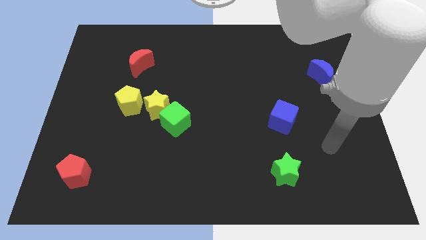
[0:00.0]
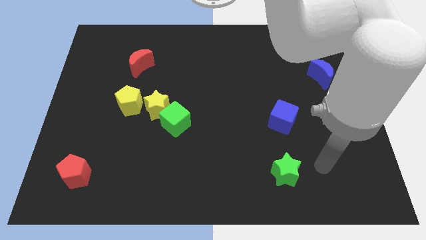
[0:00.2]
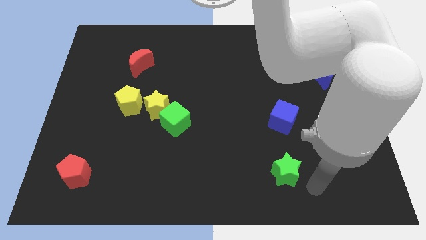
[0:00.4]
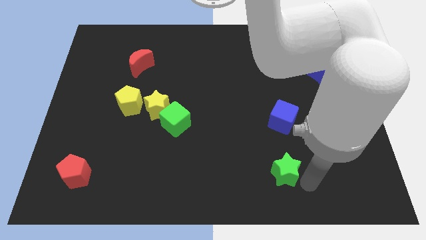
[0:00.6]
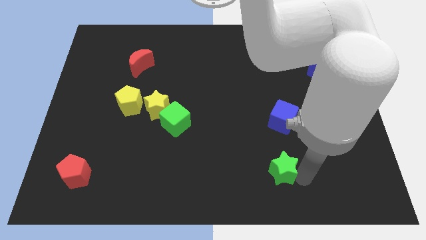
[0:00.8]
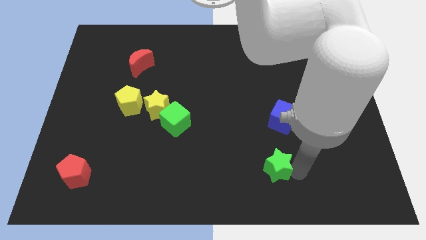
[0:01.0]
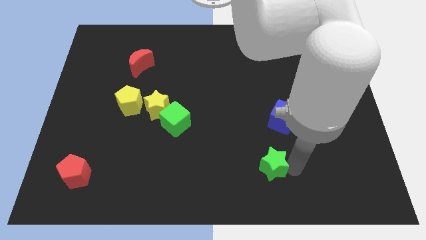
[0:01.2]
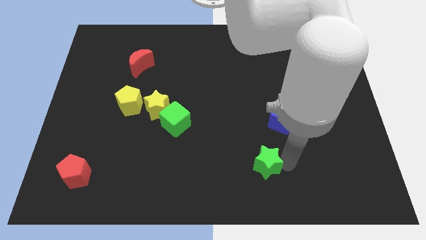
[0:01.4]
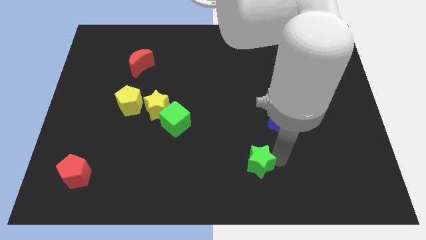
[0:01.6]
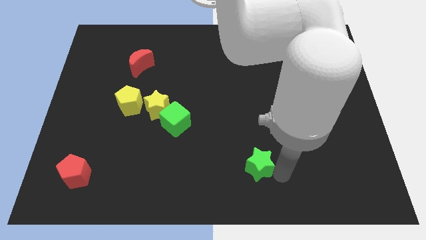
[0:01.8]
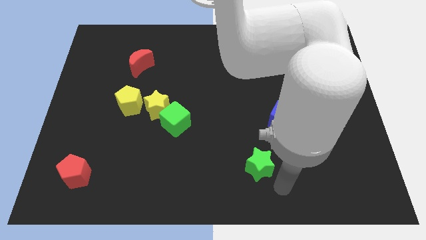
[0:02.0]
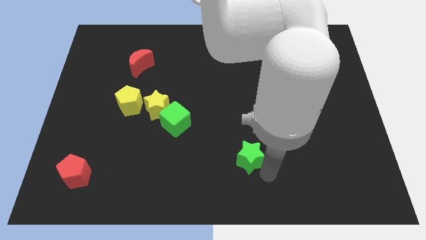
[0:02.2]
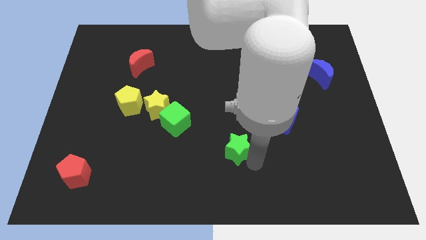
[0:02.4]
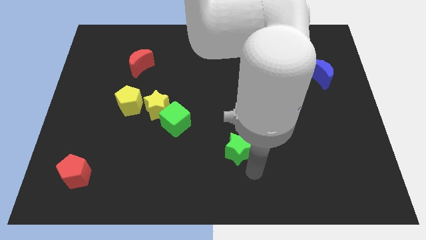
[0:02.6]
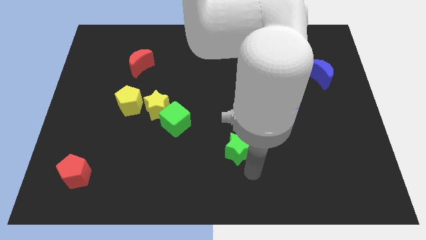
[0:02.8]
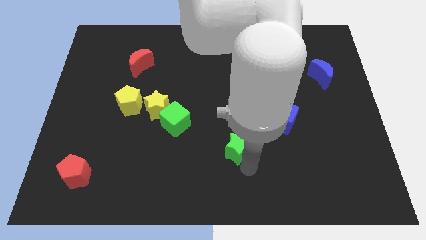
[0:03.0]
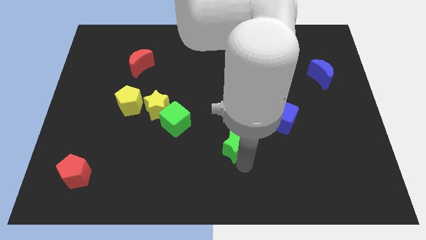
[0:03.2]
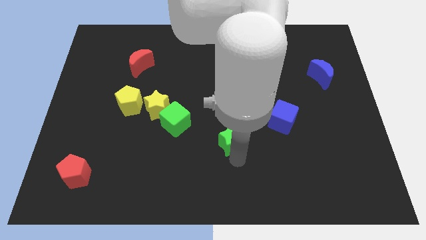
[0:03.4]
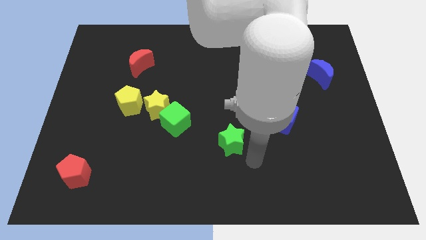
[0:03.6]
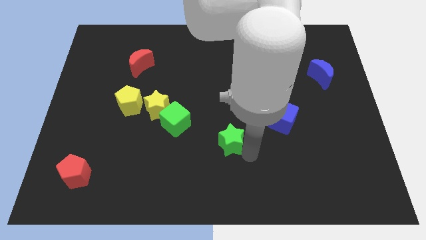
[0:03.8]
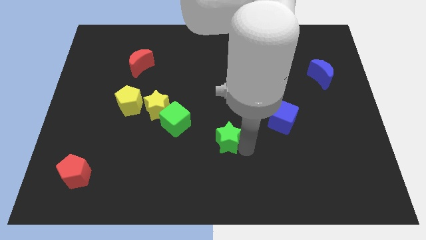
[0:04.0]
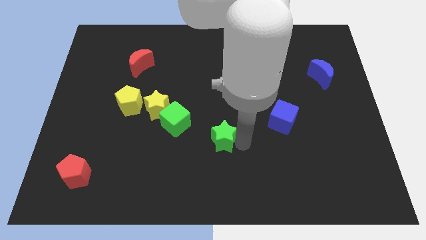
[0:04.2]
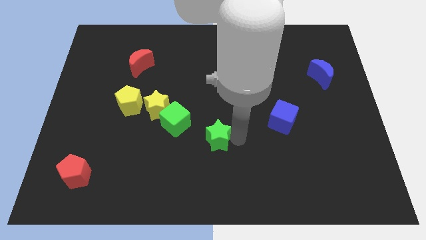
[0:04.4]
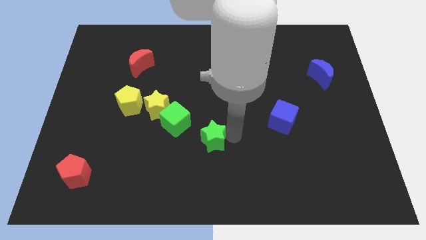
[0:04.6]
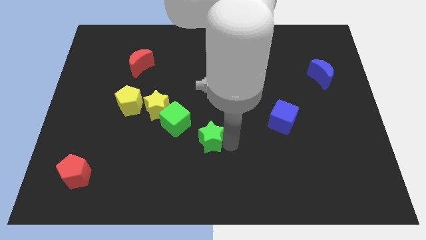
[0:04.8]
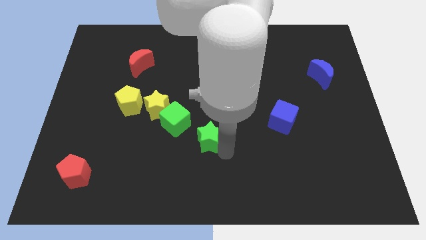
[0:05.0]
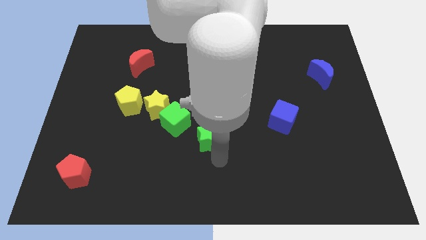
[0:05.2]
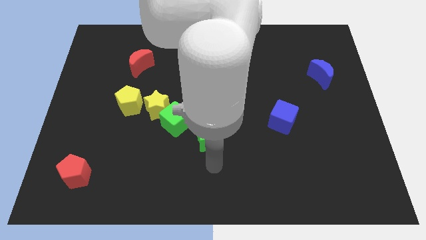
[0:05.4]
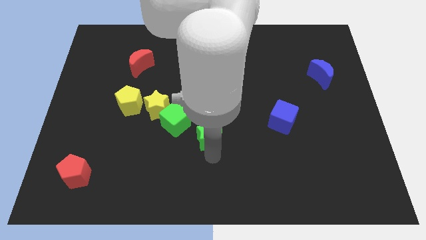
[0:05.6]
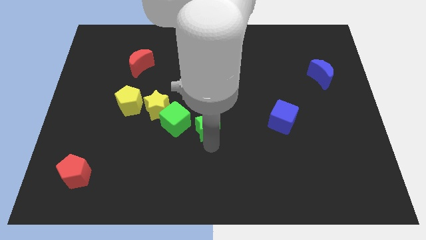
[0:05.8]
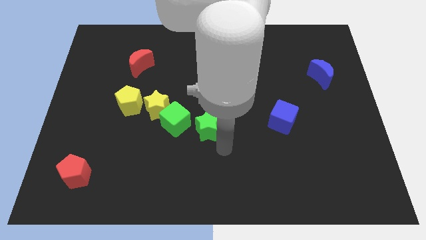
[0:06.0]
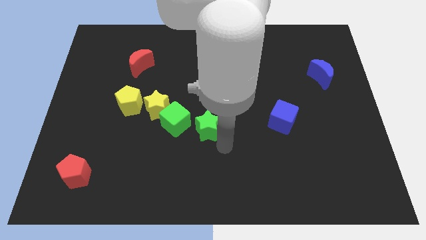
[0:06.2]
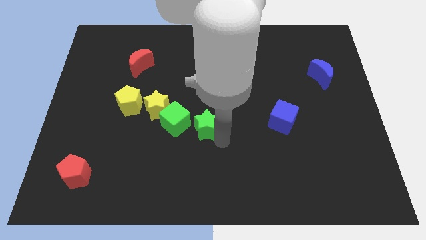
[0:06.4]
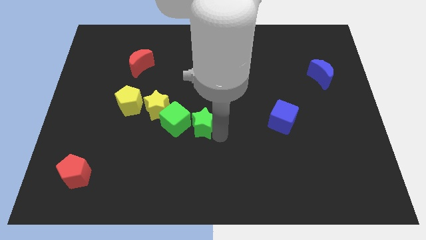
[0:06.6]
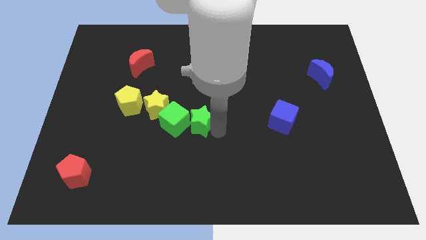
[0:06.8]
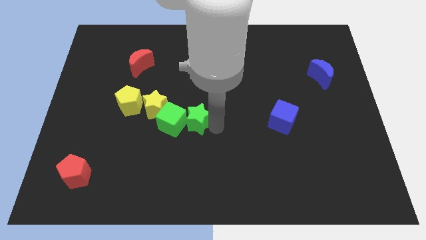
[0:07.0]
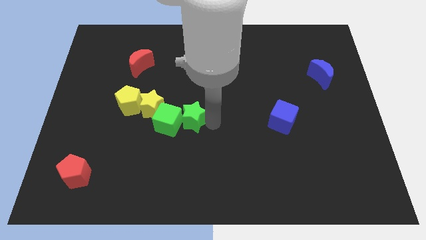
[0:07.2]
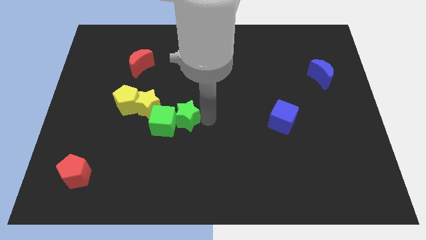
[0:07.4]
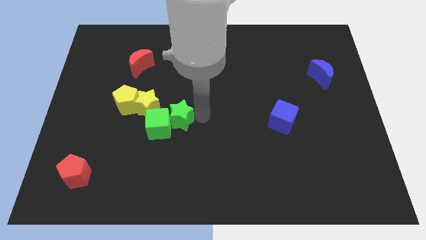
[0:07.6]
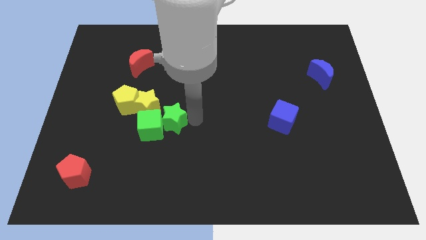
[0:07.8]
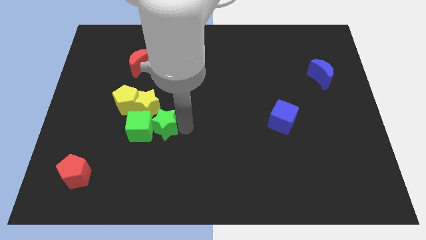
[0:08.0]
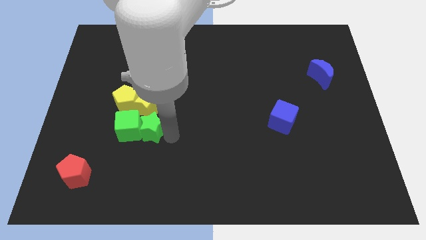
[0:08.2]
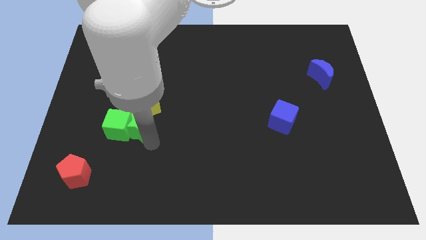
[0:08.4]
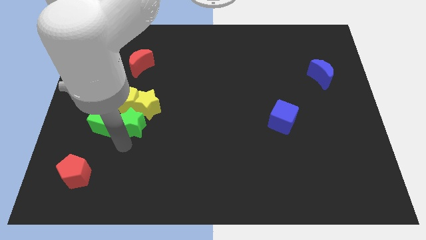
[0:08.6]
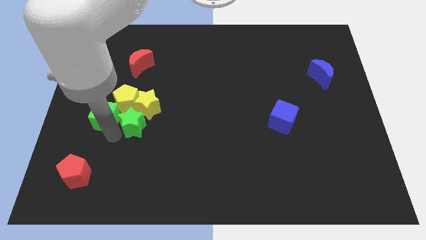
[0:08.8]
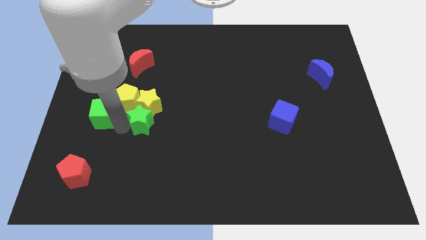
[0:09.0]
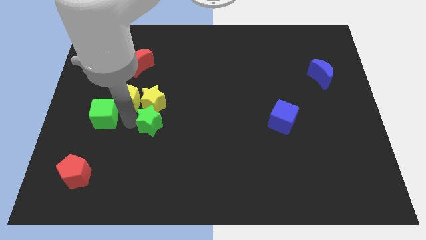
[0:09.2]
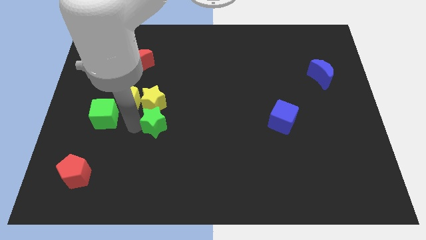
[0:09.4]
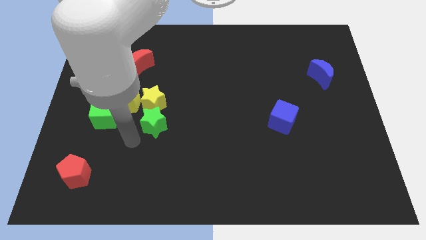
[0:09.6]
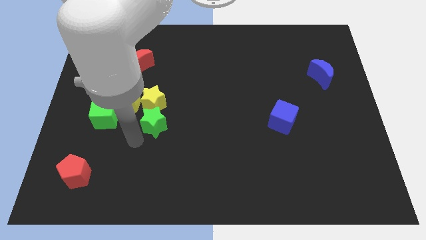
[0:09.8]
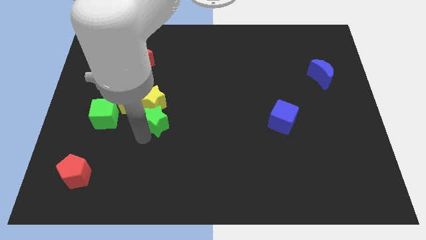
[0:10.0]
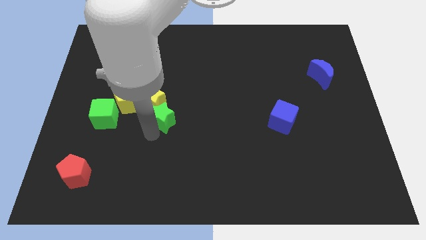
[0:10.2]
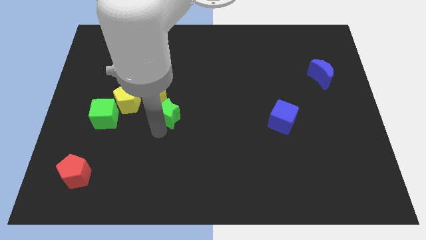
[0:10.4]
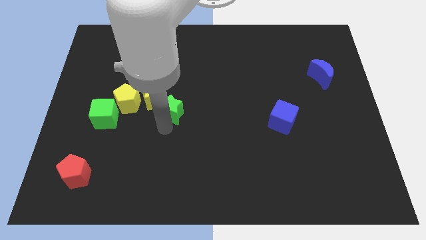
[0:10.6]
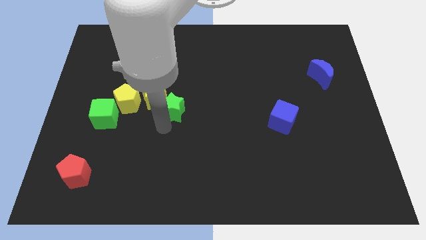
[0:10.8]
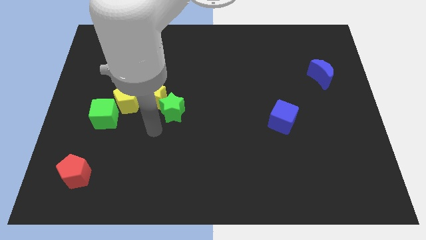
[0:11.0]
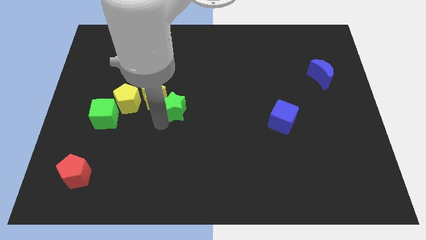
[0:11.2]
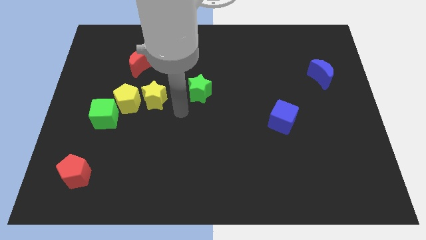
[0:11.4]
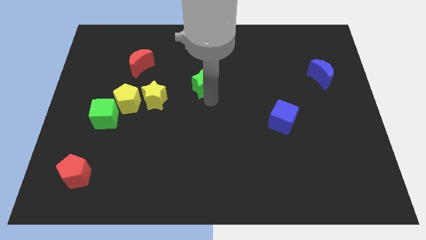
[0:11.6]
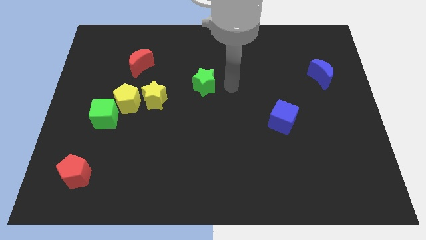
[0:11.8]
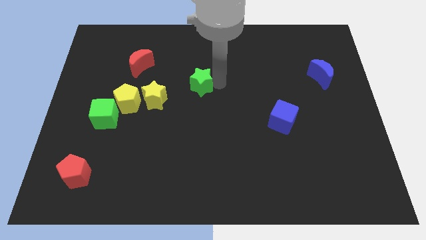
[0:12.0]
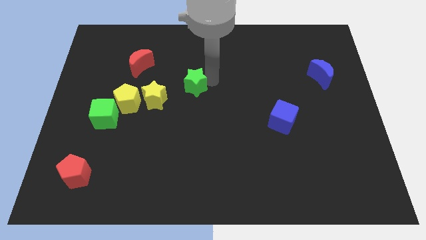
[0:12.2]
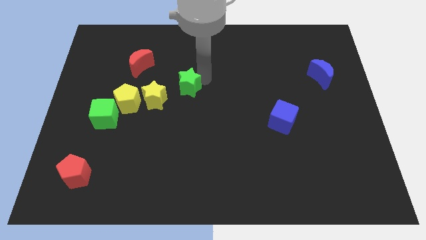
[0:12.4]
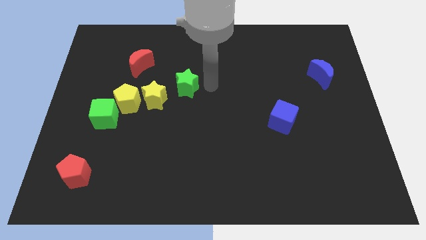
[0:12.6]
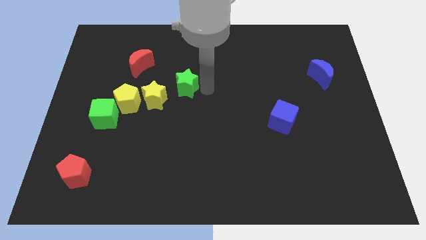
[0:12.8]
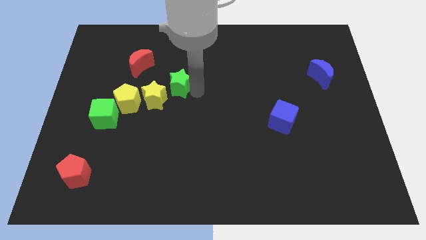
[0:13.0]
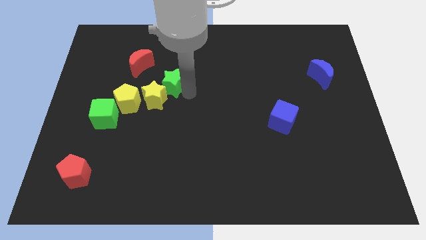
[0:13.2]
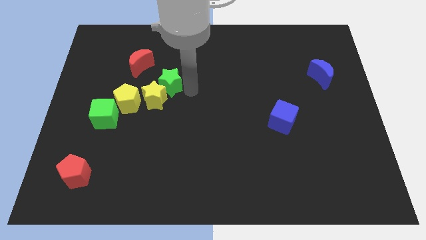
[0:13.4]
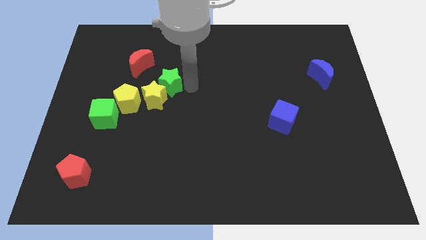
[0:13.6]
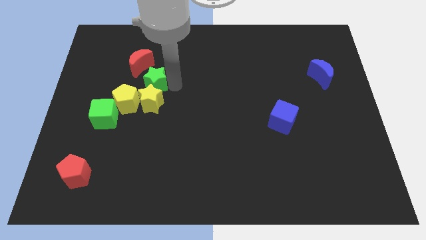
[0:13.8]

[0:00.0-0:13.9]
put the green star to the top left of the yellow star
